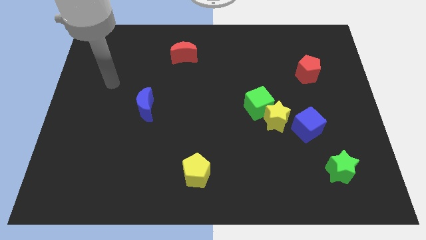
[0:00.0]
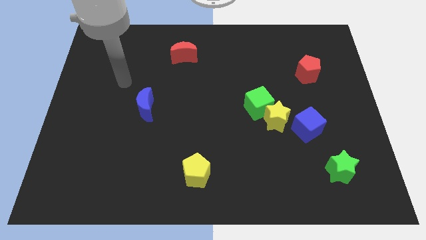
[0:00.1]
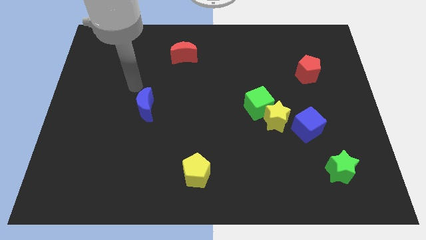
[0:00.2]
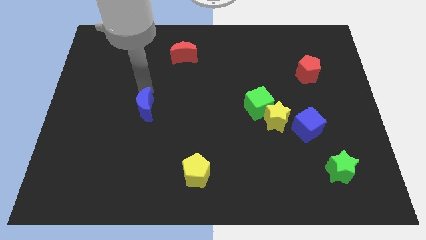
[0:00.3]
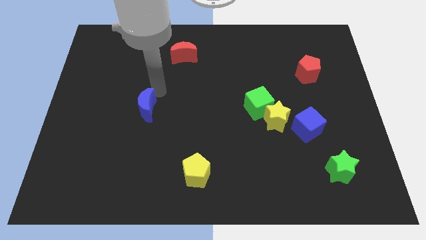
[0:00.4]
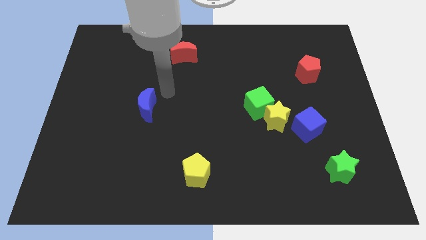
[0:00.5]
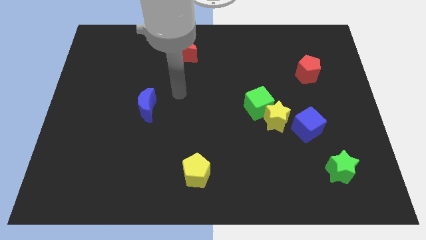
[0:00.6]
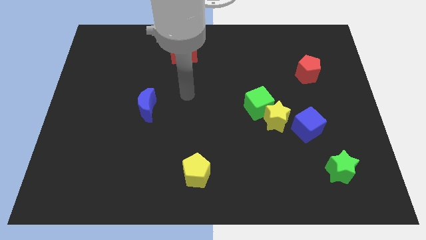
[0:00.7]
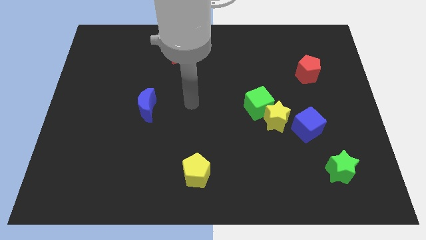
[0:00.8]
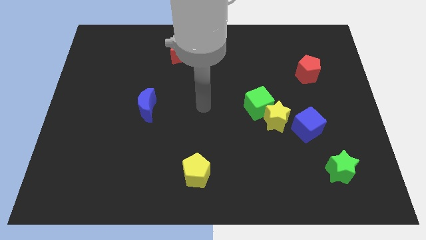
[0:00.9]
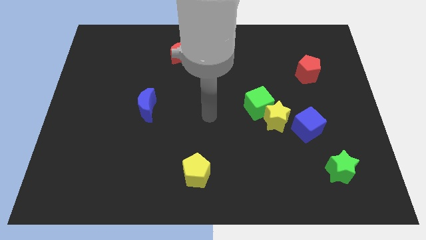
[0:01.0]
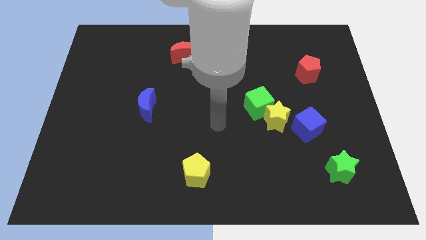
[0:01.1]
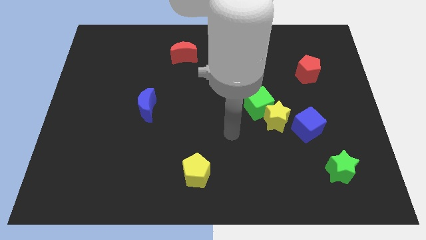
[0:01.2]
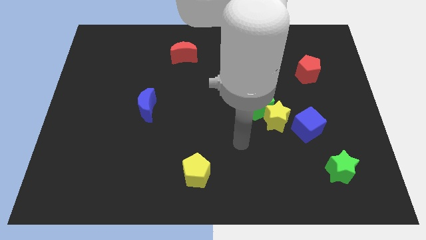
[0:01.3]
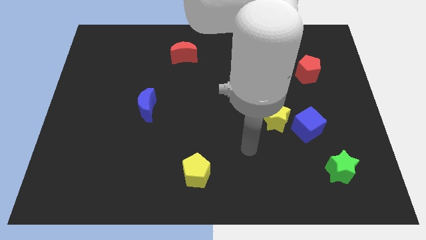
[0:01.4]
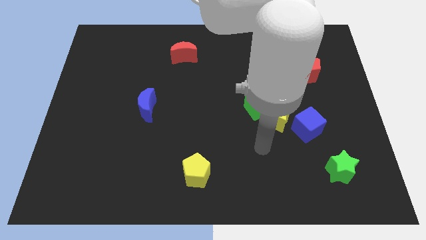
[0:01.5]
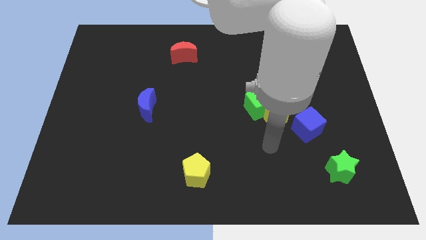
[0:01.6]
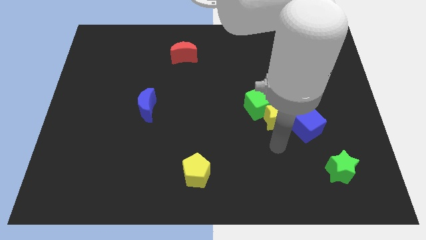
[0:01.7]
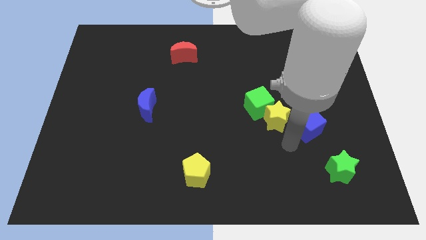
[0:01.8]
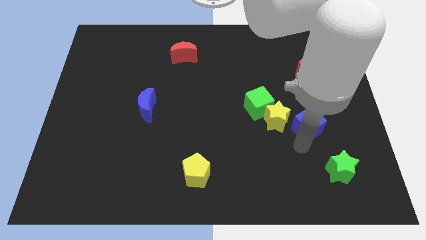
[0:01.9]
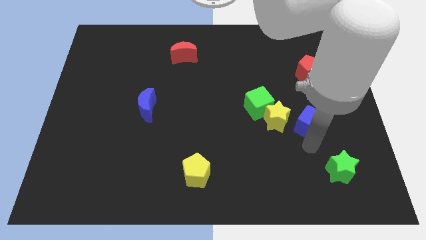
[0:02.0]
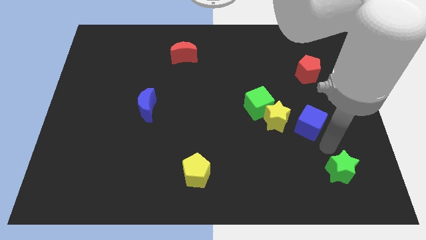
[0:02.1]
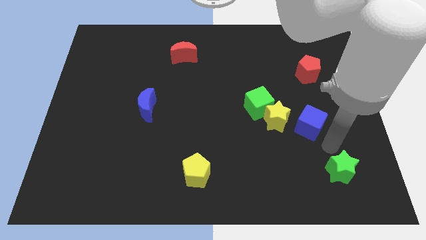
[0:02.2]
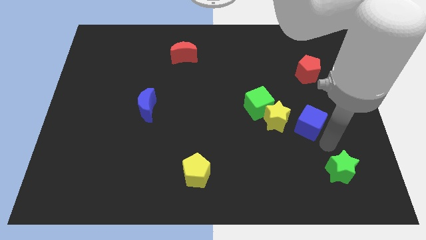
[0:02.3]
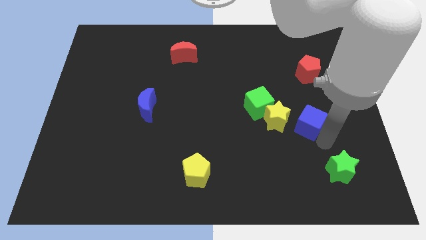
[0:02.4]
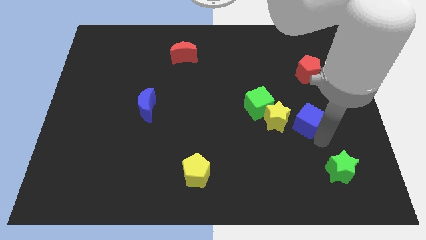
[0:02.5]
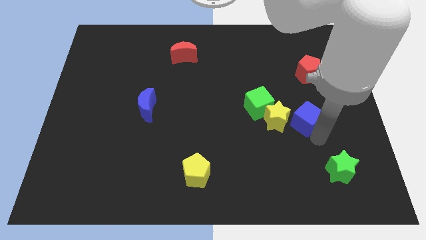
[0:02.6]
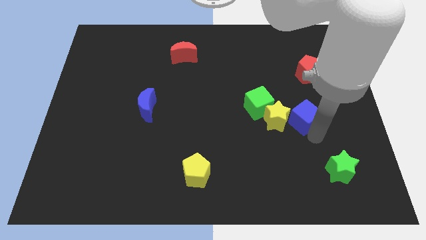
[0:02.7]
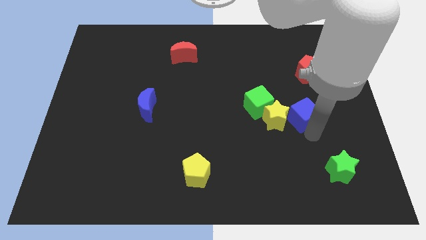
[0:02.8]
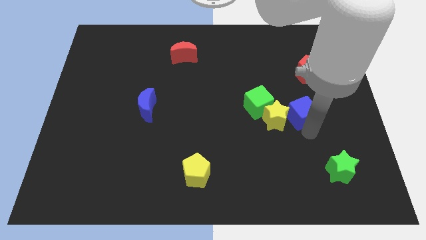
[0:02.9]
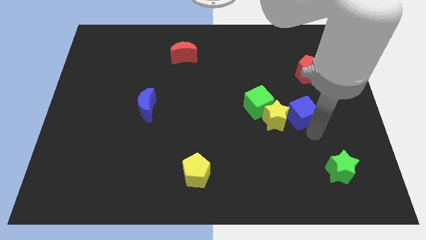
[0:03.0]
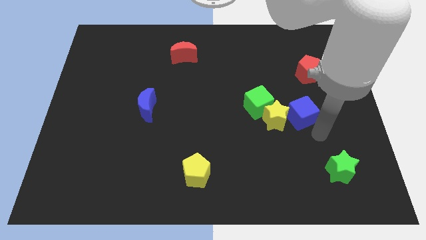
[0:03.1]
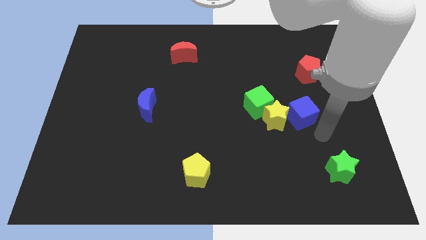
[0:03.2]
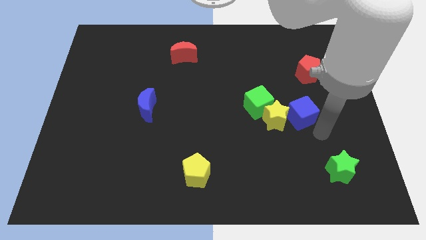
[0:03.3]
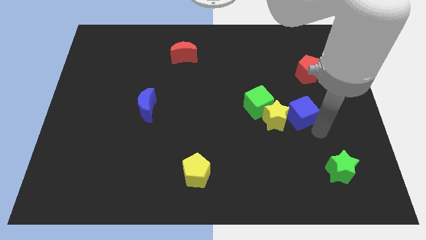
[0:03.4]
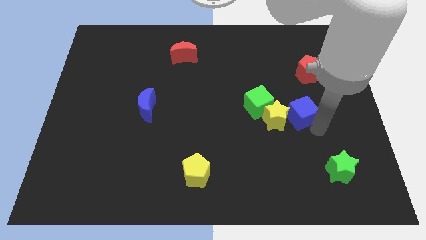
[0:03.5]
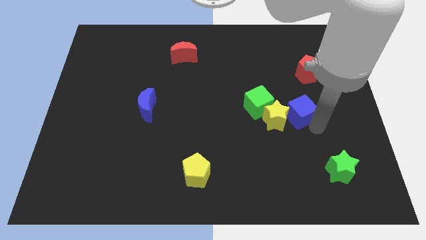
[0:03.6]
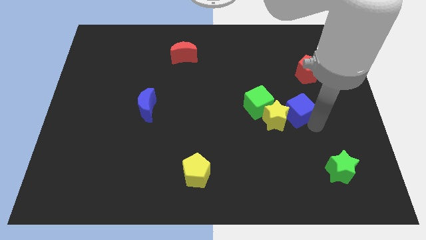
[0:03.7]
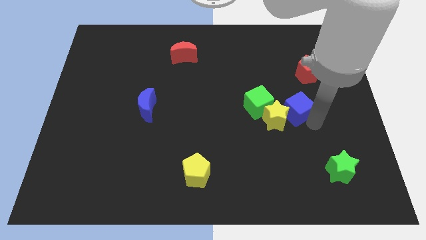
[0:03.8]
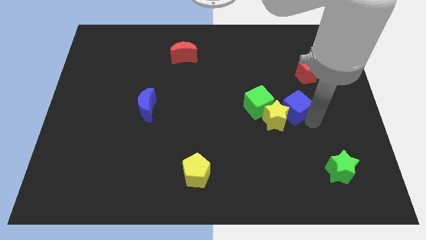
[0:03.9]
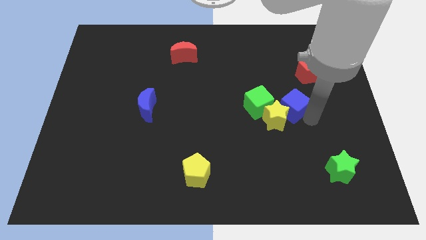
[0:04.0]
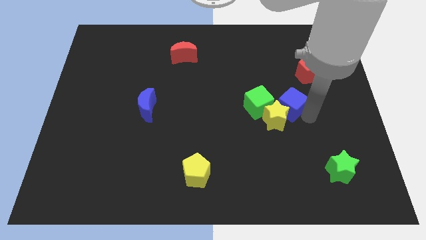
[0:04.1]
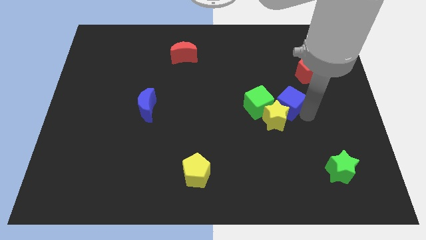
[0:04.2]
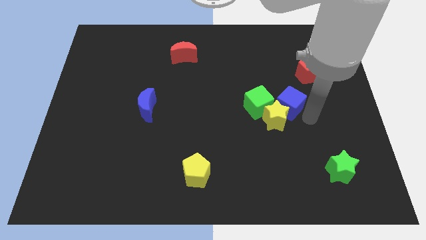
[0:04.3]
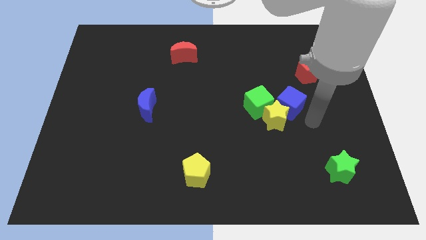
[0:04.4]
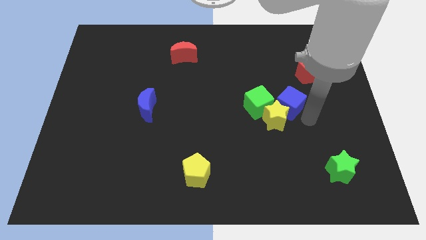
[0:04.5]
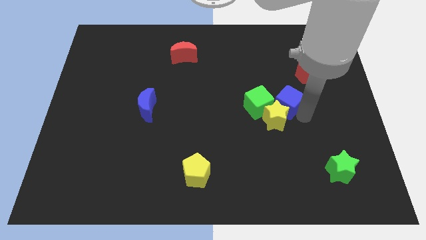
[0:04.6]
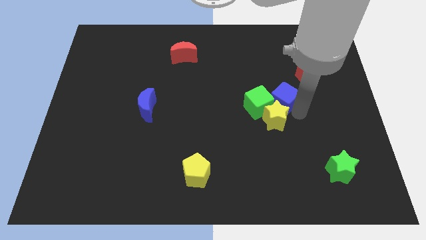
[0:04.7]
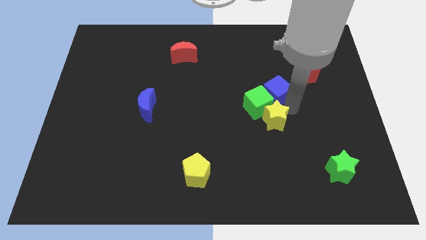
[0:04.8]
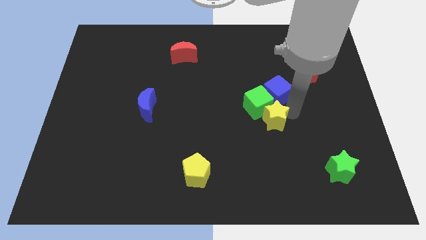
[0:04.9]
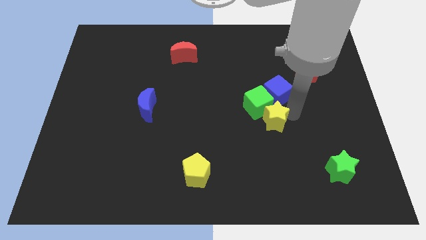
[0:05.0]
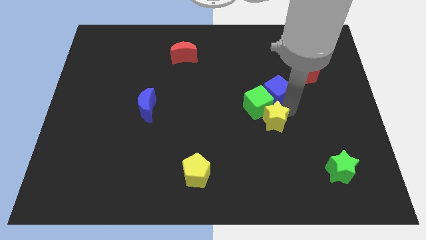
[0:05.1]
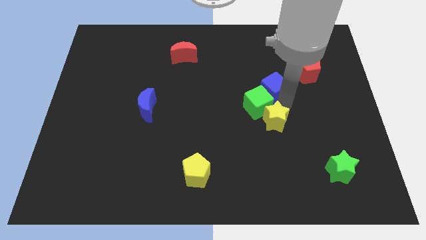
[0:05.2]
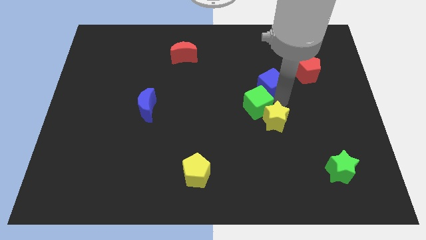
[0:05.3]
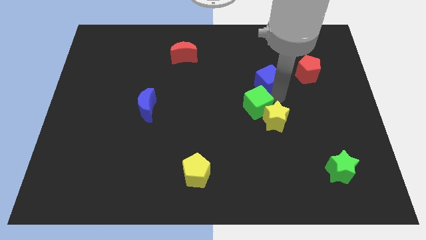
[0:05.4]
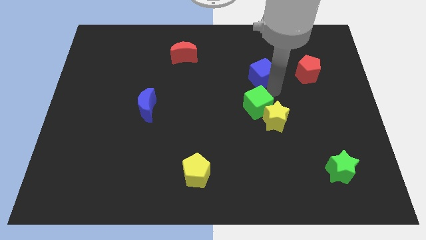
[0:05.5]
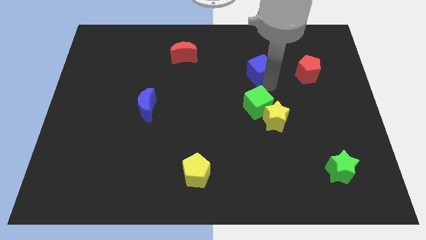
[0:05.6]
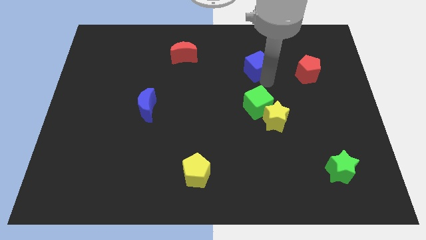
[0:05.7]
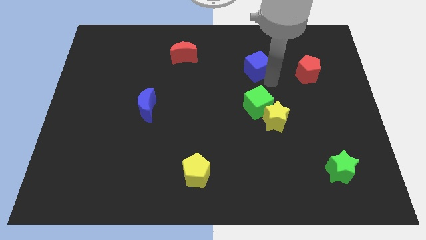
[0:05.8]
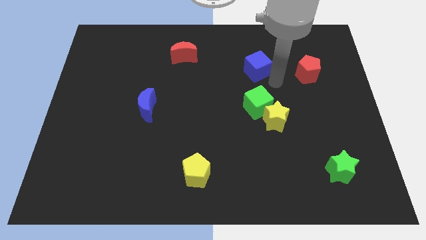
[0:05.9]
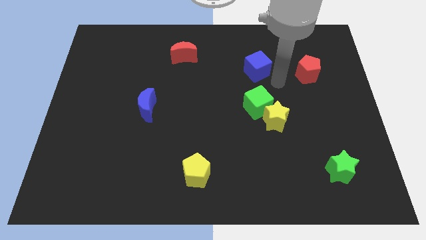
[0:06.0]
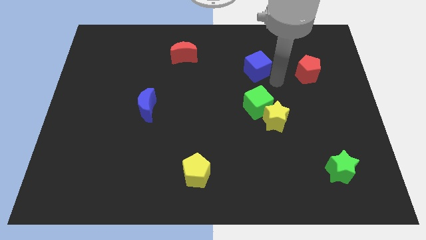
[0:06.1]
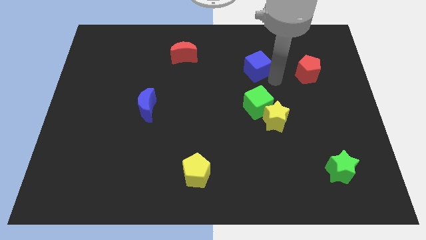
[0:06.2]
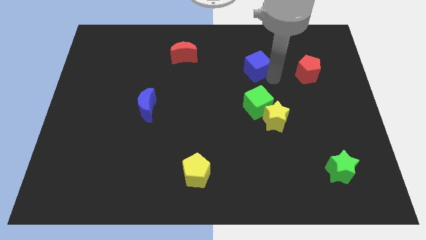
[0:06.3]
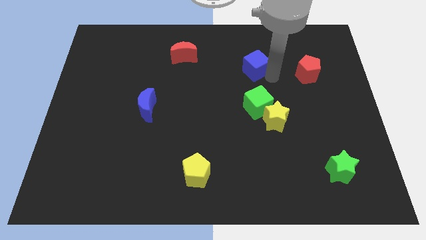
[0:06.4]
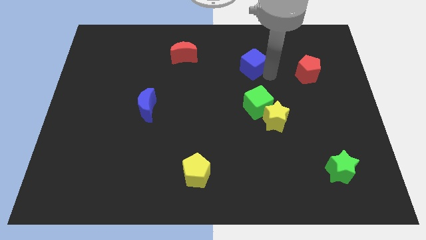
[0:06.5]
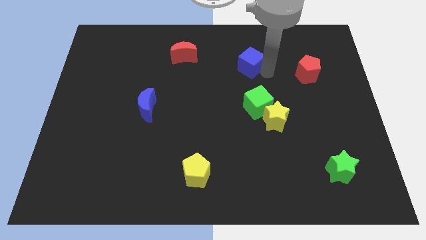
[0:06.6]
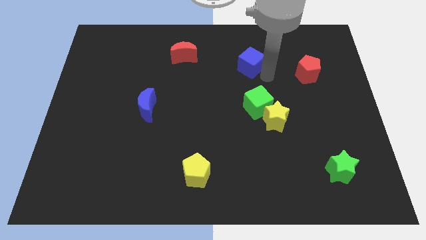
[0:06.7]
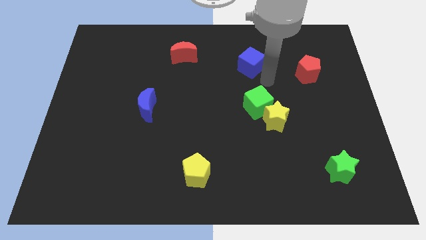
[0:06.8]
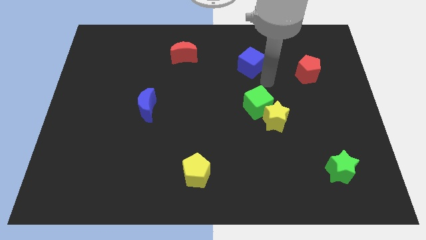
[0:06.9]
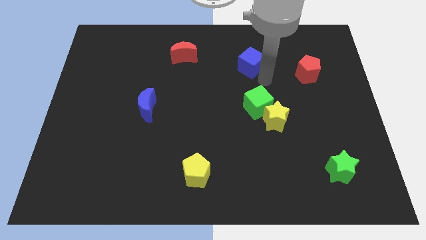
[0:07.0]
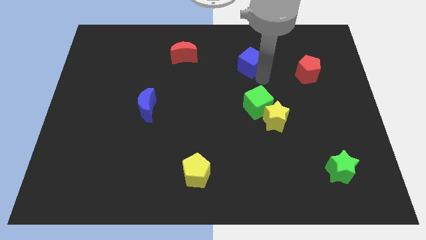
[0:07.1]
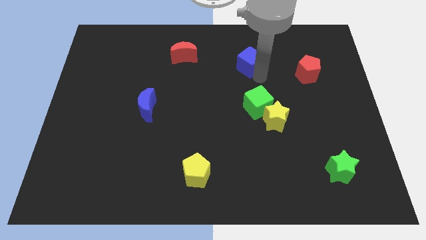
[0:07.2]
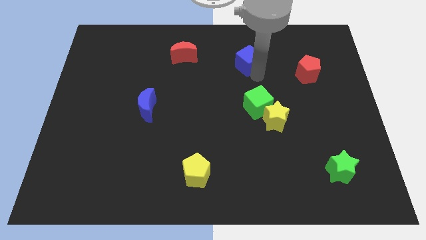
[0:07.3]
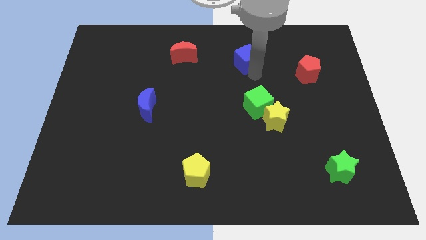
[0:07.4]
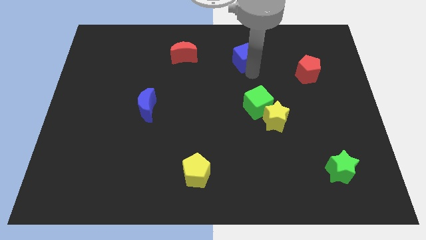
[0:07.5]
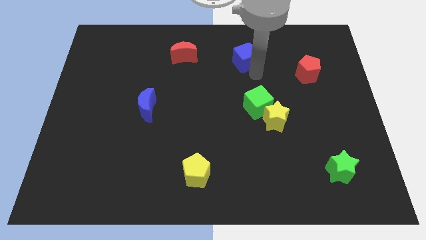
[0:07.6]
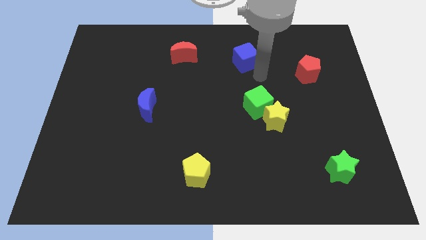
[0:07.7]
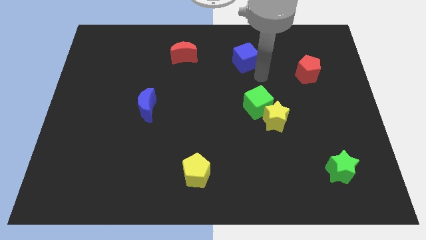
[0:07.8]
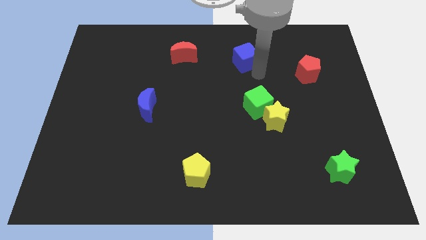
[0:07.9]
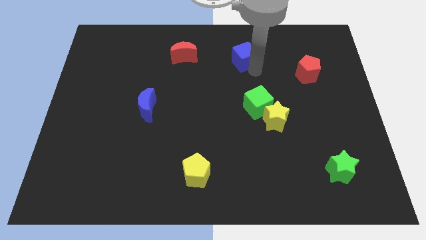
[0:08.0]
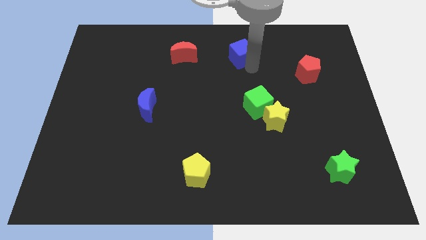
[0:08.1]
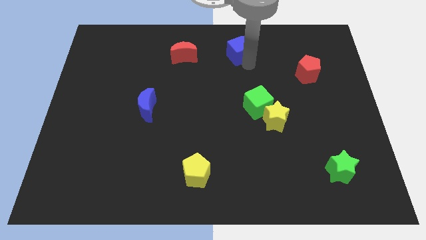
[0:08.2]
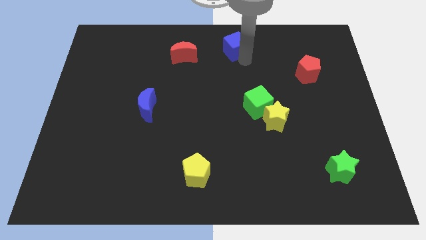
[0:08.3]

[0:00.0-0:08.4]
push the blue cube to the towards your base
